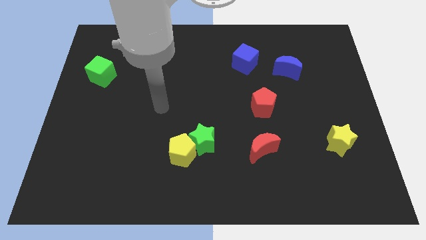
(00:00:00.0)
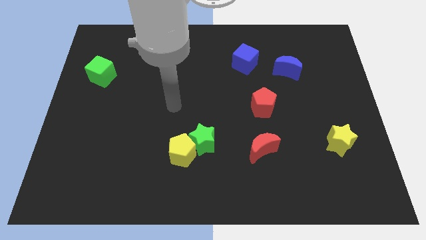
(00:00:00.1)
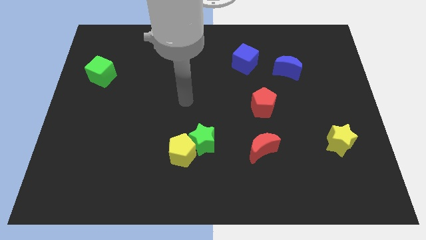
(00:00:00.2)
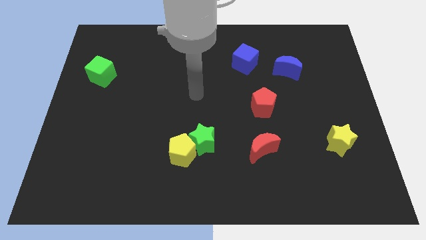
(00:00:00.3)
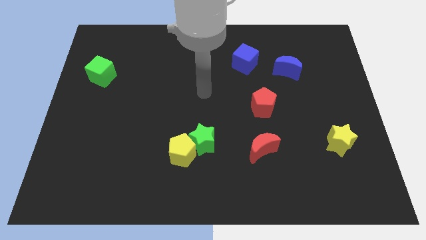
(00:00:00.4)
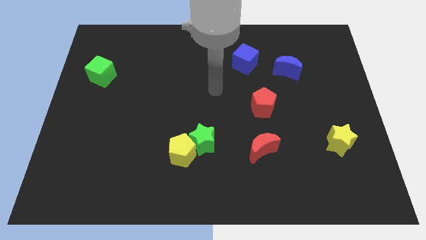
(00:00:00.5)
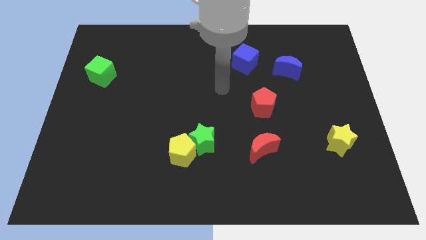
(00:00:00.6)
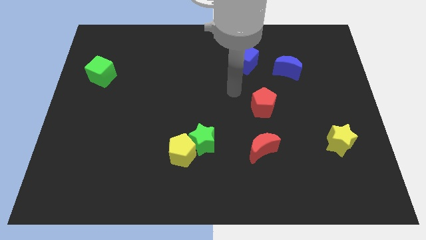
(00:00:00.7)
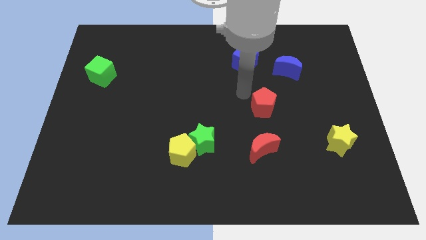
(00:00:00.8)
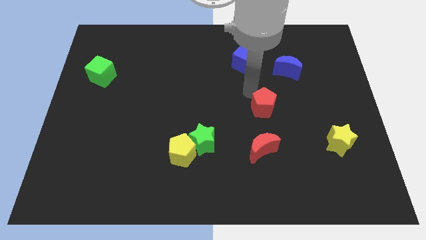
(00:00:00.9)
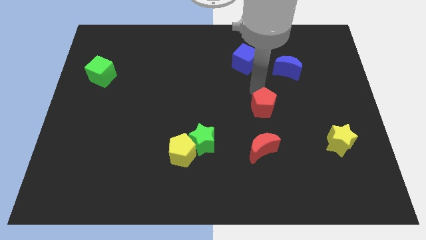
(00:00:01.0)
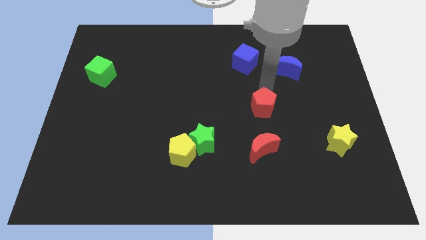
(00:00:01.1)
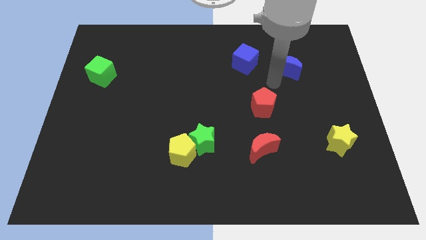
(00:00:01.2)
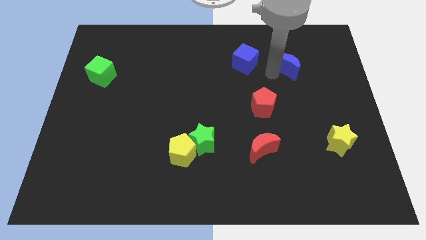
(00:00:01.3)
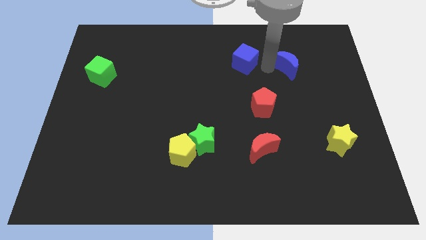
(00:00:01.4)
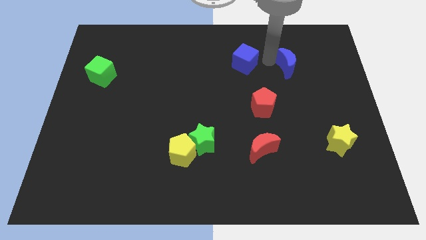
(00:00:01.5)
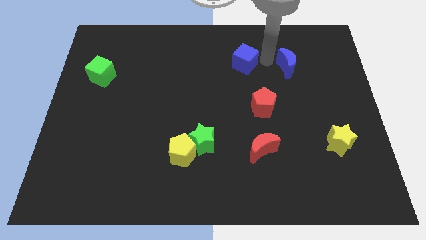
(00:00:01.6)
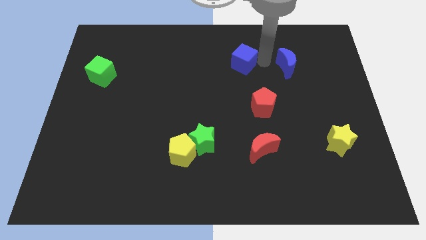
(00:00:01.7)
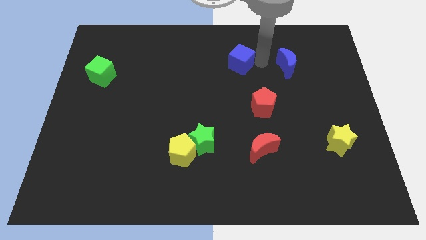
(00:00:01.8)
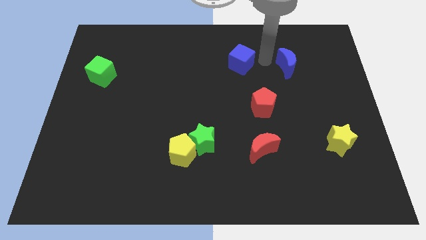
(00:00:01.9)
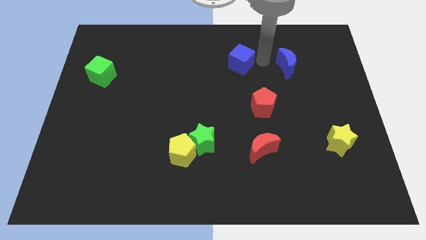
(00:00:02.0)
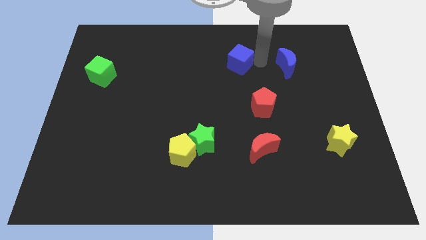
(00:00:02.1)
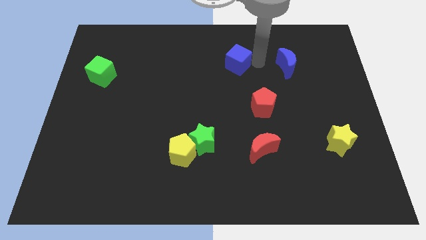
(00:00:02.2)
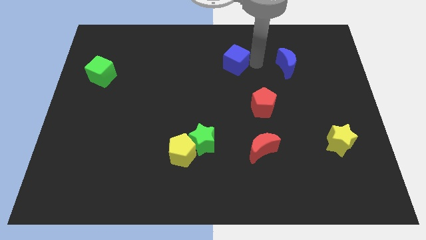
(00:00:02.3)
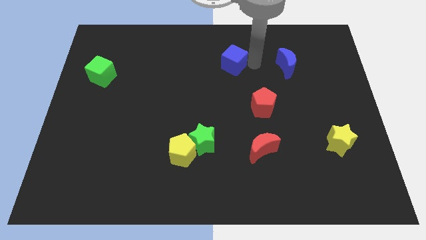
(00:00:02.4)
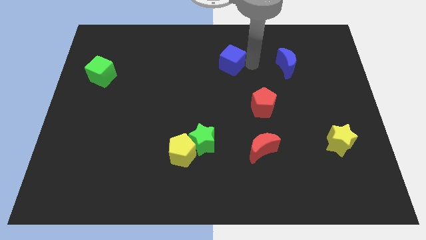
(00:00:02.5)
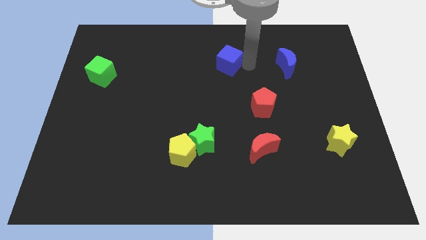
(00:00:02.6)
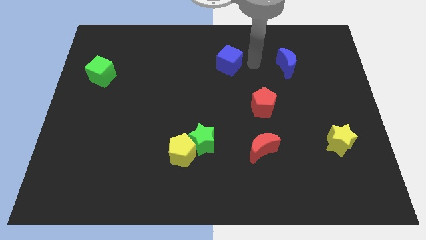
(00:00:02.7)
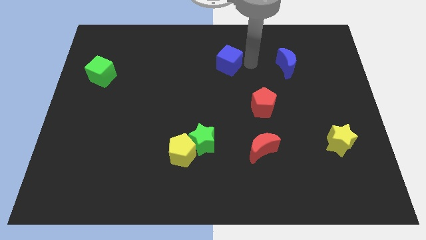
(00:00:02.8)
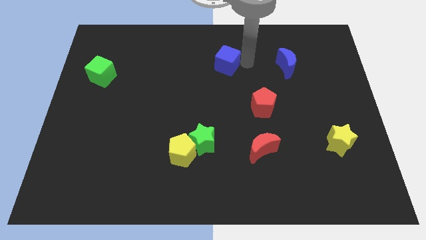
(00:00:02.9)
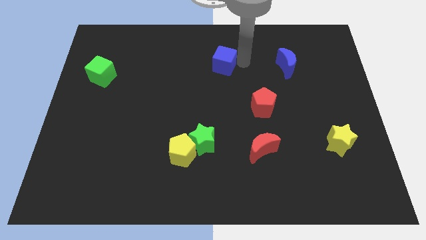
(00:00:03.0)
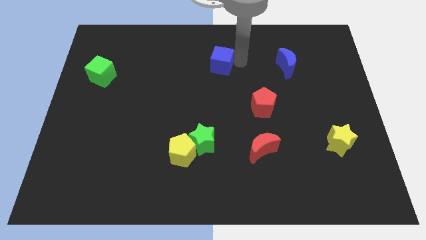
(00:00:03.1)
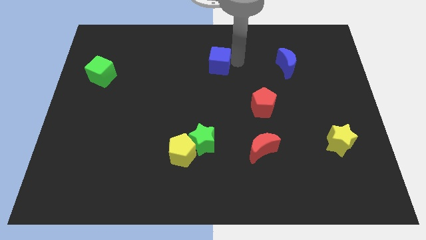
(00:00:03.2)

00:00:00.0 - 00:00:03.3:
move the blue cube a bit to the left

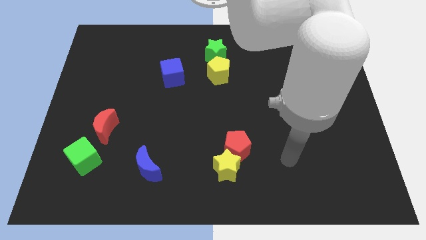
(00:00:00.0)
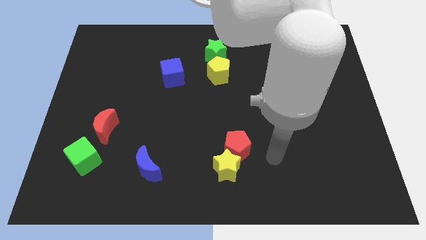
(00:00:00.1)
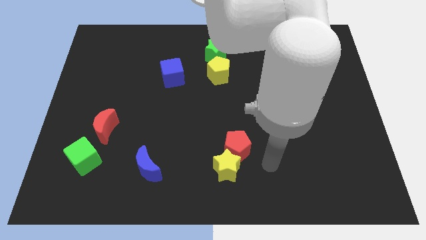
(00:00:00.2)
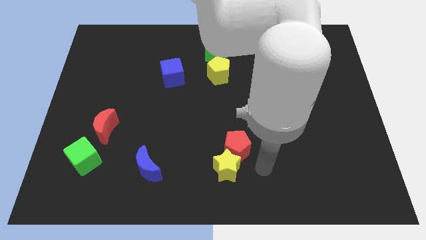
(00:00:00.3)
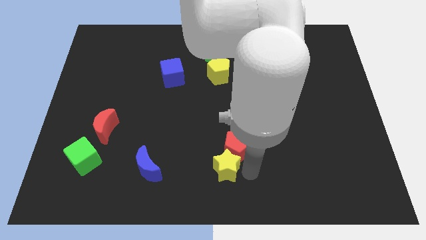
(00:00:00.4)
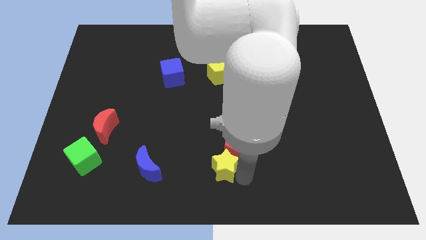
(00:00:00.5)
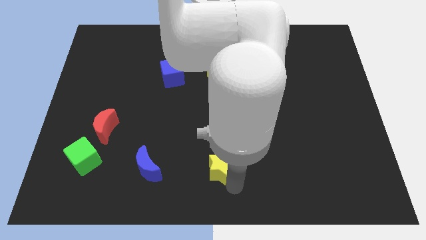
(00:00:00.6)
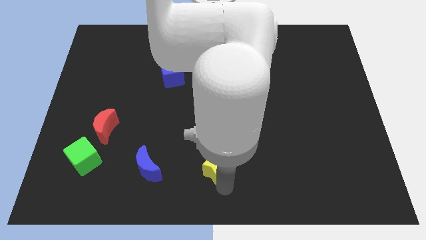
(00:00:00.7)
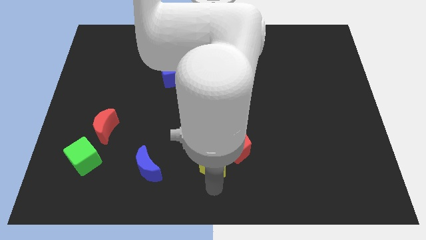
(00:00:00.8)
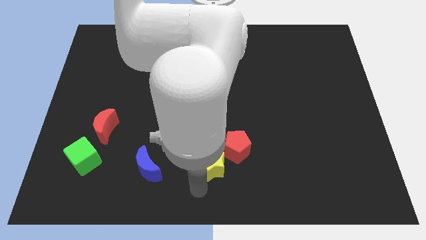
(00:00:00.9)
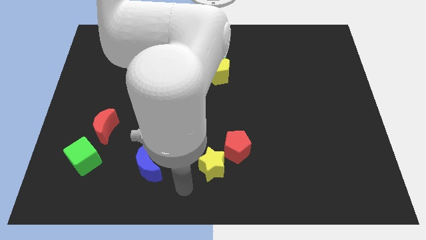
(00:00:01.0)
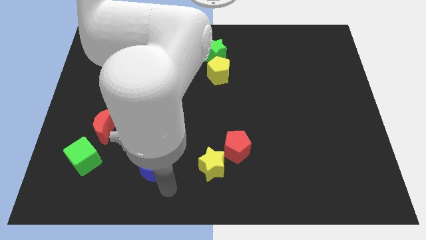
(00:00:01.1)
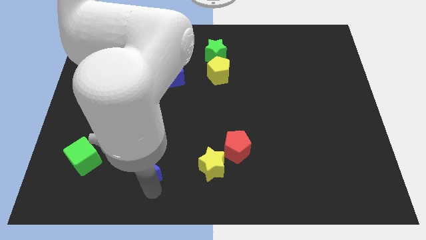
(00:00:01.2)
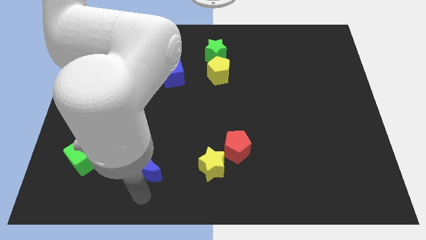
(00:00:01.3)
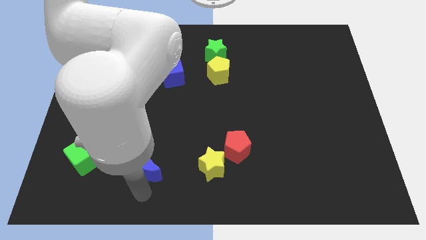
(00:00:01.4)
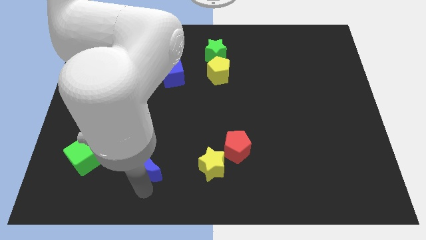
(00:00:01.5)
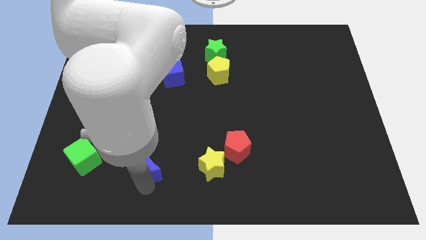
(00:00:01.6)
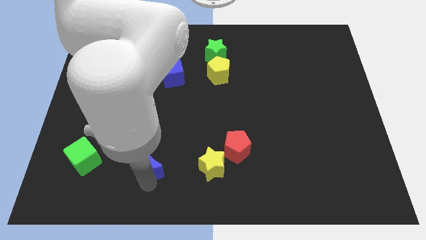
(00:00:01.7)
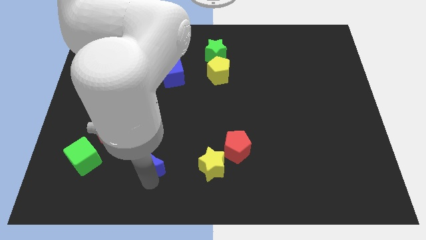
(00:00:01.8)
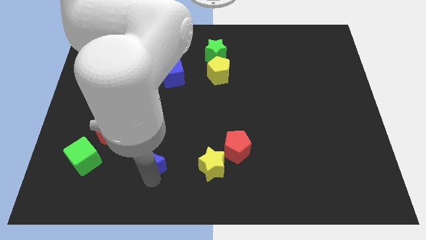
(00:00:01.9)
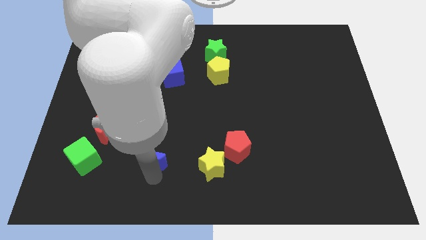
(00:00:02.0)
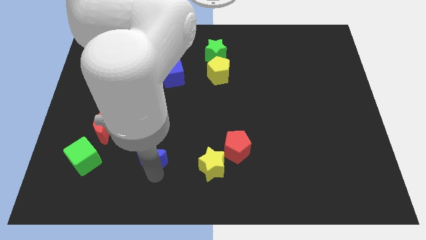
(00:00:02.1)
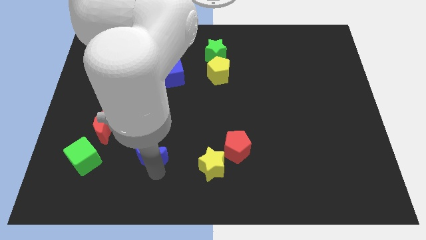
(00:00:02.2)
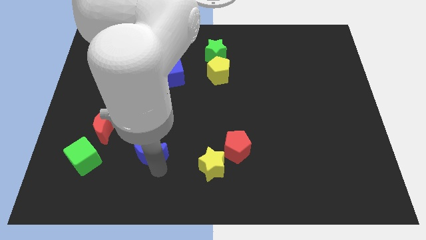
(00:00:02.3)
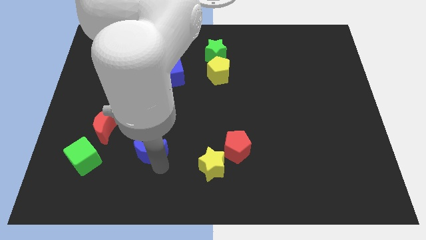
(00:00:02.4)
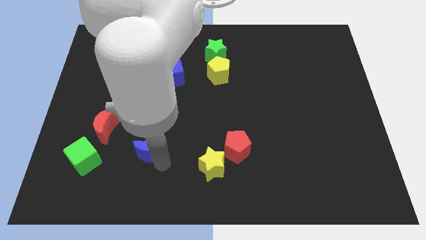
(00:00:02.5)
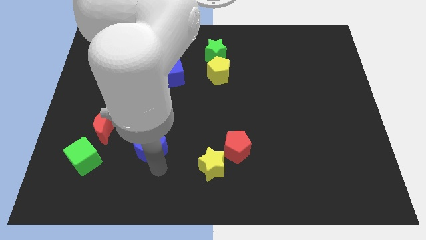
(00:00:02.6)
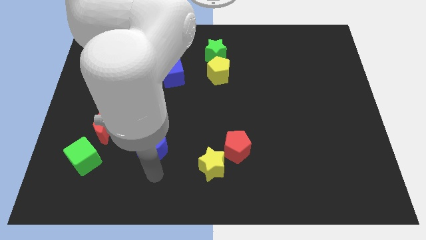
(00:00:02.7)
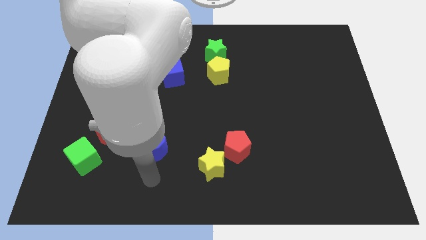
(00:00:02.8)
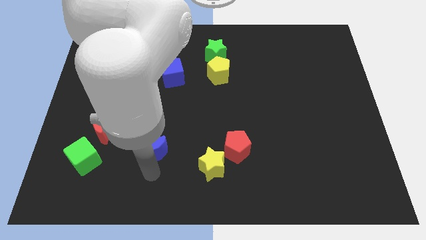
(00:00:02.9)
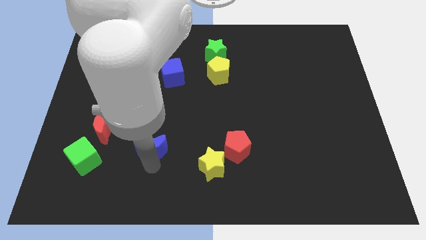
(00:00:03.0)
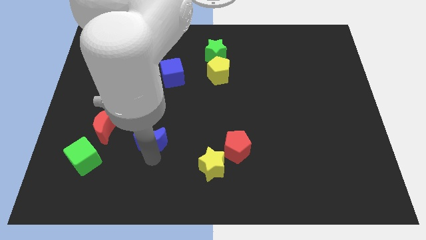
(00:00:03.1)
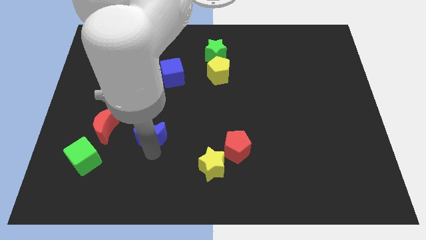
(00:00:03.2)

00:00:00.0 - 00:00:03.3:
push the blue moon slightly upwards

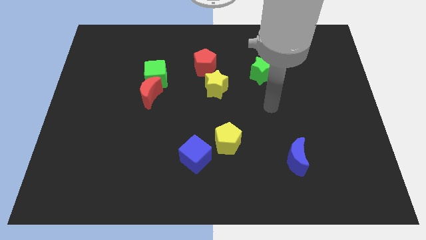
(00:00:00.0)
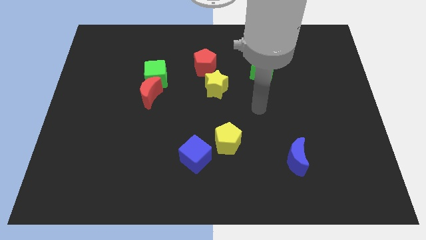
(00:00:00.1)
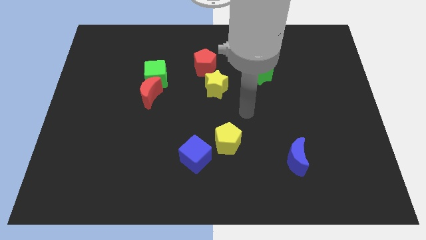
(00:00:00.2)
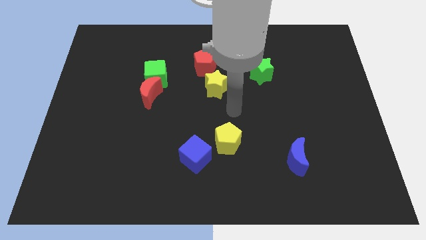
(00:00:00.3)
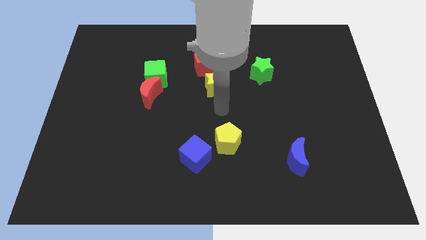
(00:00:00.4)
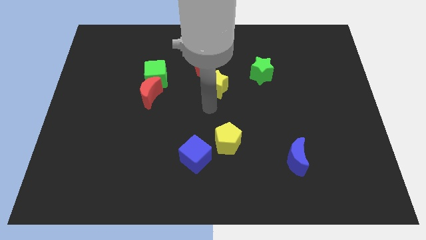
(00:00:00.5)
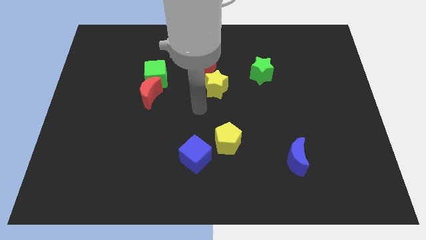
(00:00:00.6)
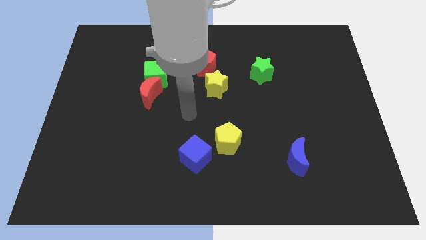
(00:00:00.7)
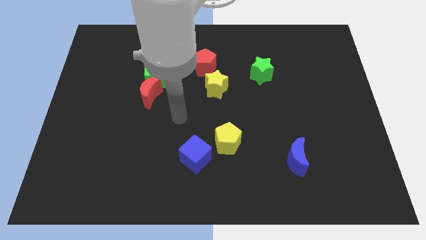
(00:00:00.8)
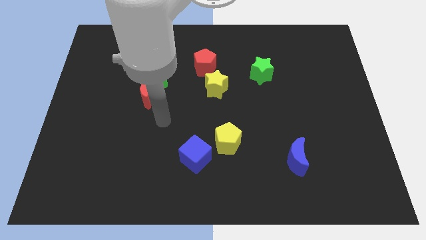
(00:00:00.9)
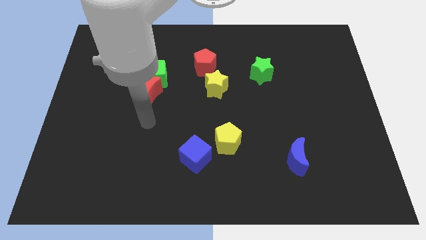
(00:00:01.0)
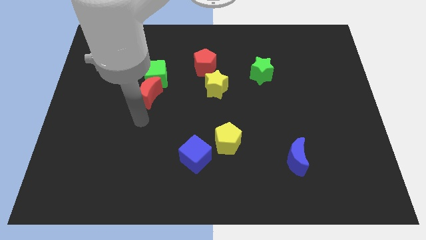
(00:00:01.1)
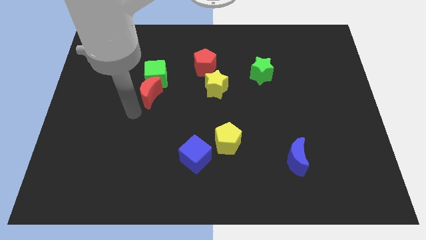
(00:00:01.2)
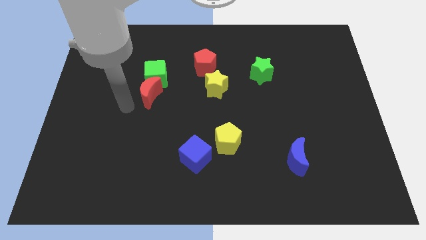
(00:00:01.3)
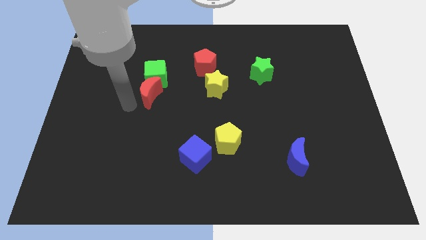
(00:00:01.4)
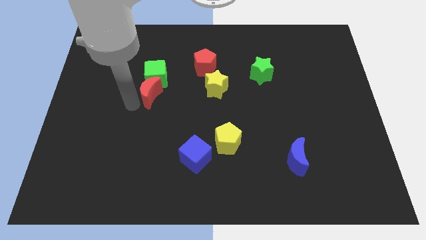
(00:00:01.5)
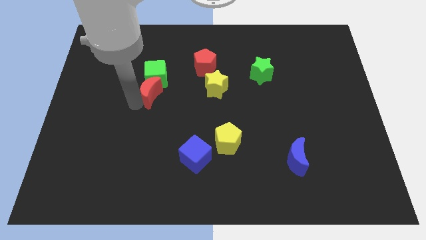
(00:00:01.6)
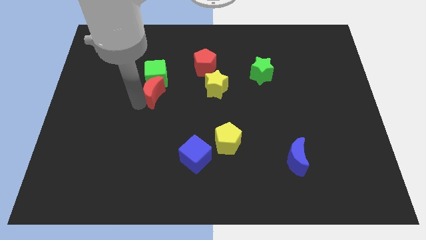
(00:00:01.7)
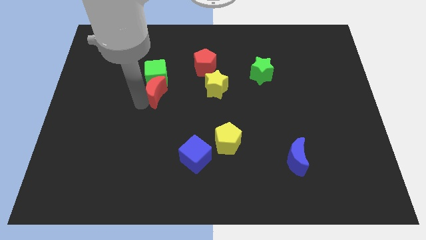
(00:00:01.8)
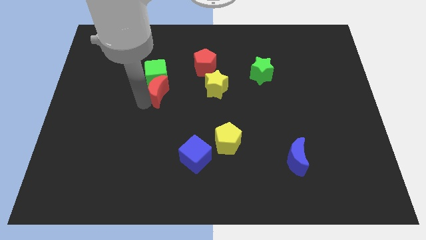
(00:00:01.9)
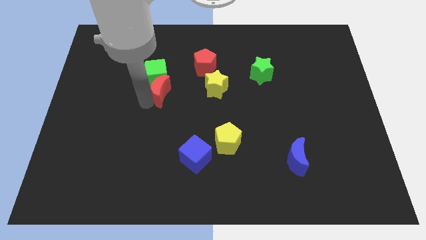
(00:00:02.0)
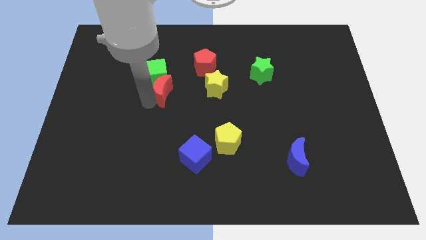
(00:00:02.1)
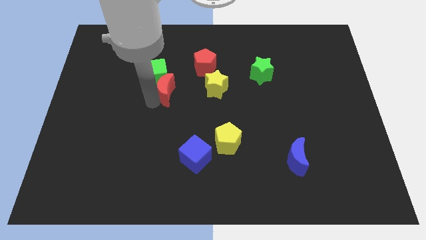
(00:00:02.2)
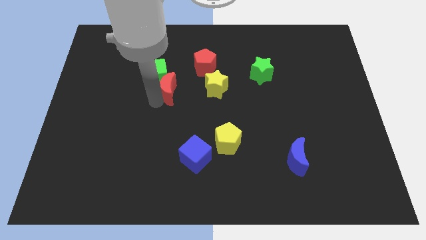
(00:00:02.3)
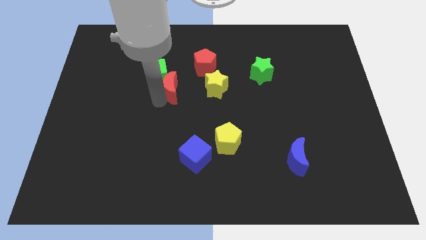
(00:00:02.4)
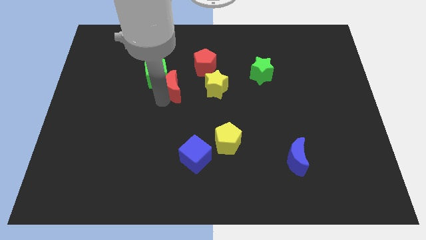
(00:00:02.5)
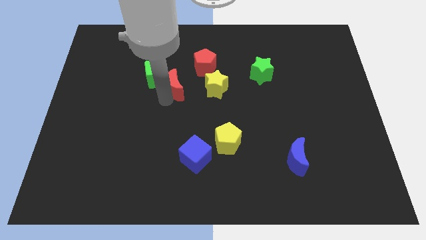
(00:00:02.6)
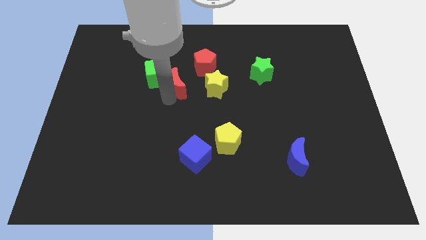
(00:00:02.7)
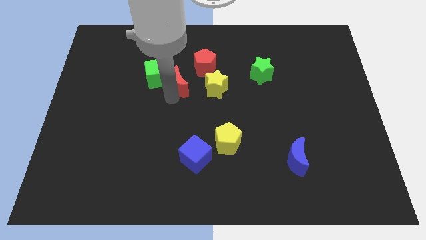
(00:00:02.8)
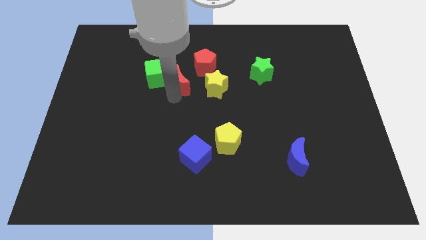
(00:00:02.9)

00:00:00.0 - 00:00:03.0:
slightly push the red moon up and then to the right
